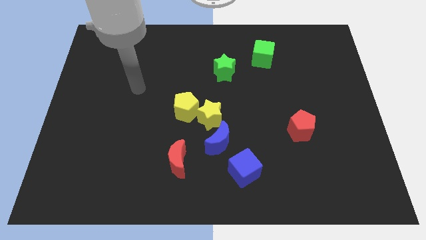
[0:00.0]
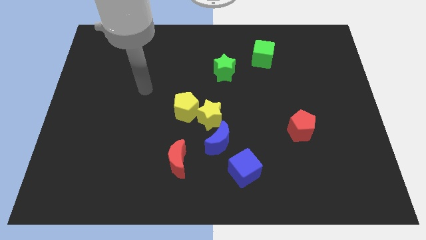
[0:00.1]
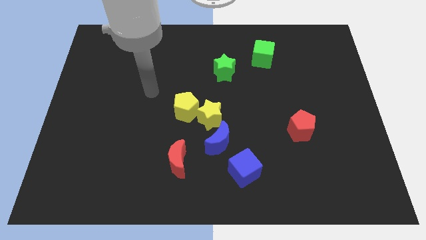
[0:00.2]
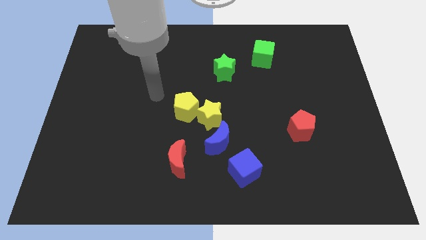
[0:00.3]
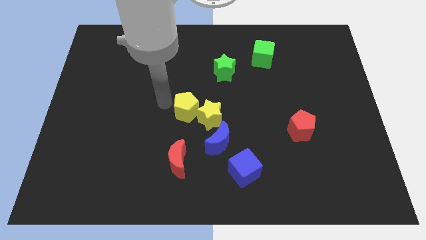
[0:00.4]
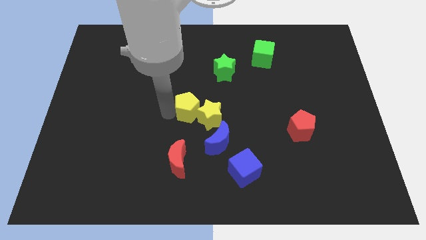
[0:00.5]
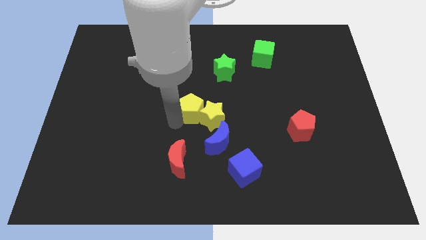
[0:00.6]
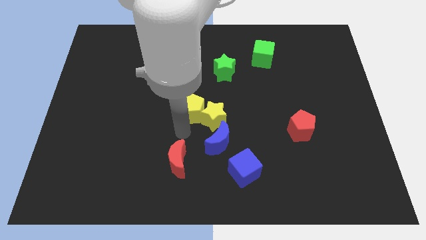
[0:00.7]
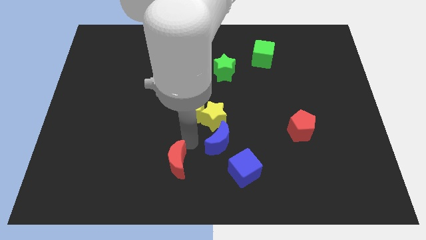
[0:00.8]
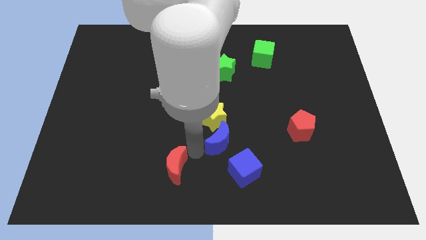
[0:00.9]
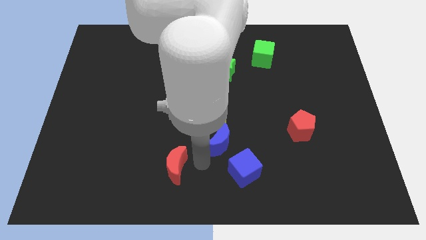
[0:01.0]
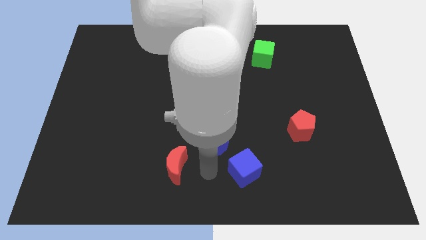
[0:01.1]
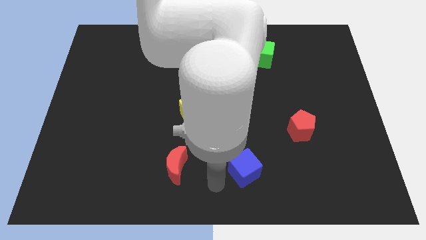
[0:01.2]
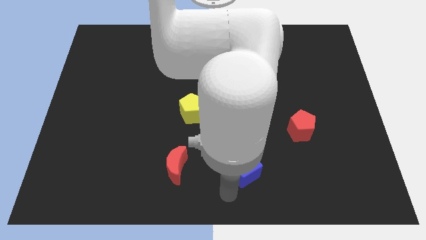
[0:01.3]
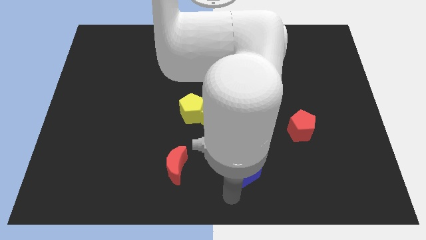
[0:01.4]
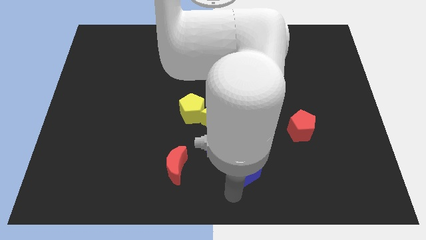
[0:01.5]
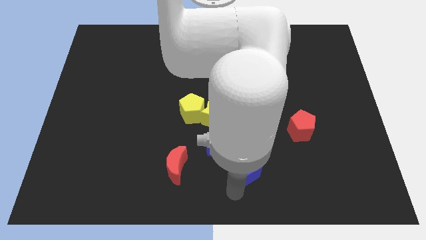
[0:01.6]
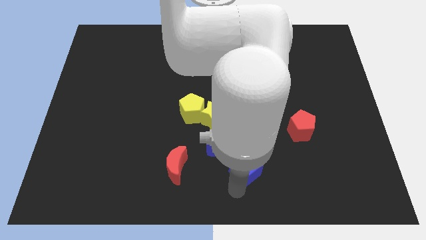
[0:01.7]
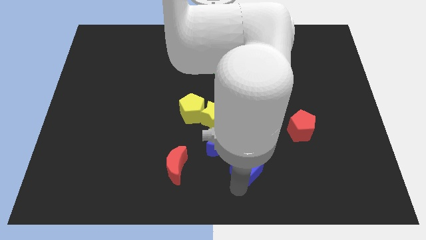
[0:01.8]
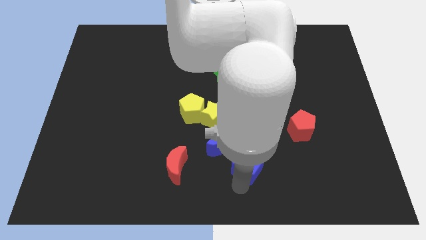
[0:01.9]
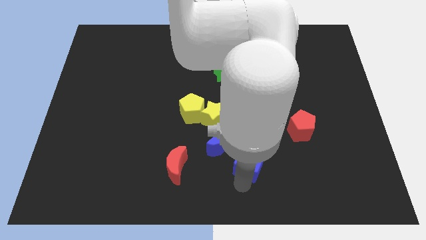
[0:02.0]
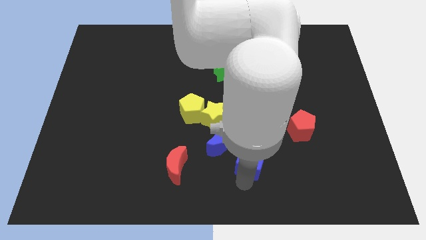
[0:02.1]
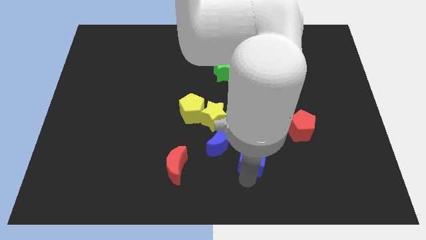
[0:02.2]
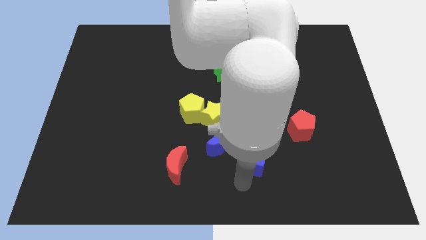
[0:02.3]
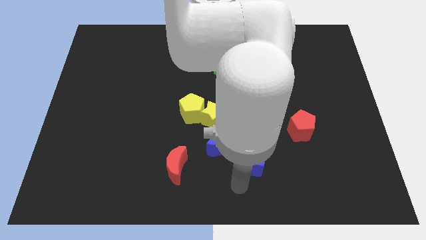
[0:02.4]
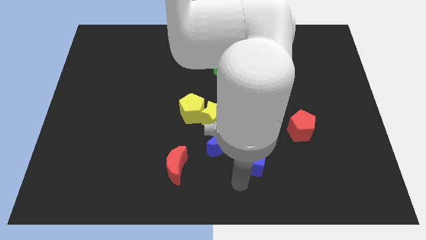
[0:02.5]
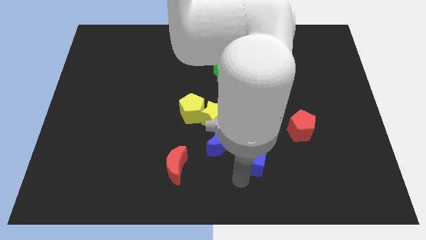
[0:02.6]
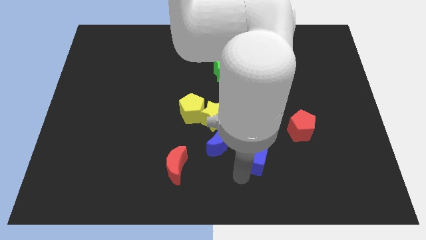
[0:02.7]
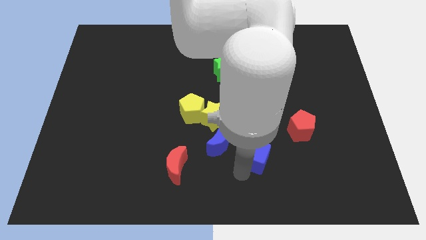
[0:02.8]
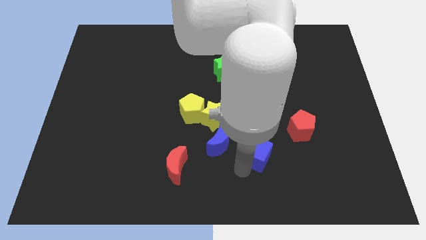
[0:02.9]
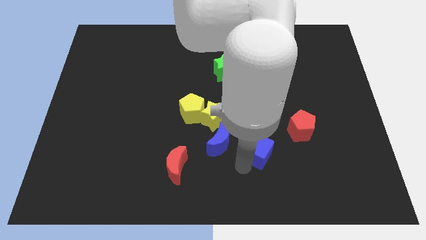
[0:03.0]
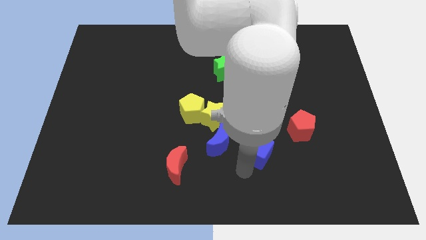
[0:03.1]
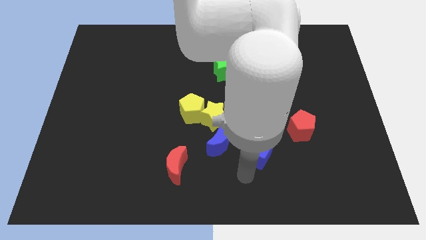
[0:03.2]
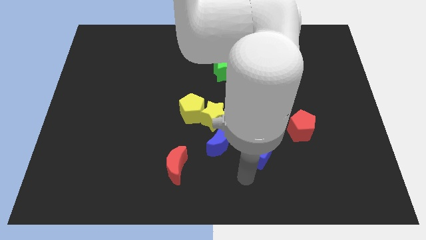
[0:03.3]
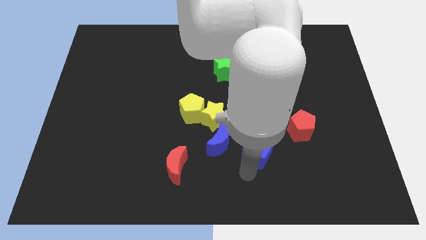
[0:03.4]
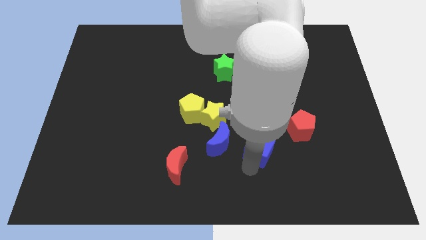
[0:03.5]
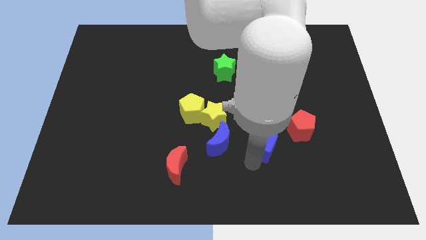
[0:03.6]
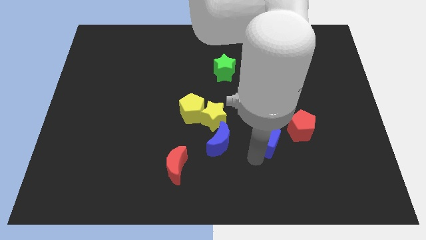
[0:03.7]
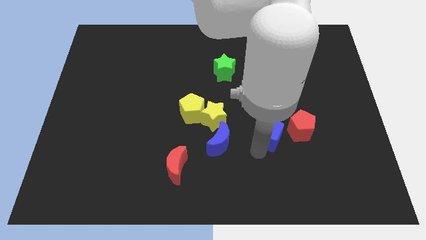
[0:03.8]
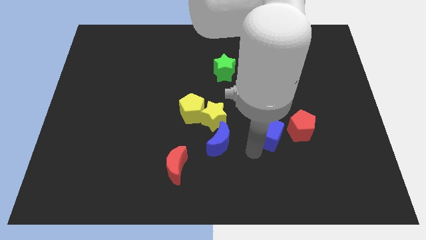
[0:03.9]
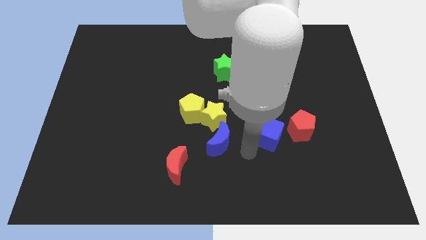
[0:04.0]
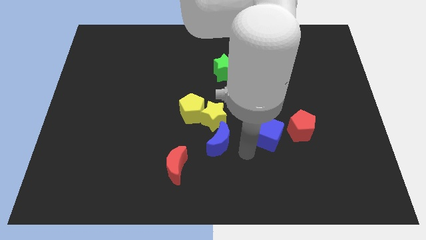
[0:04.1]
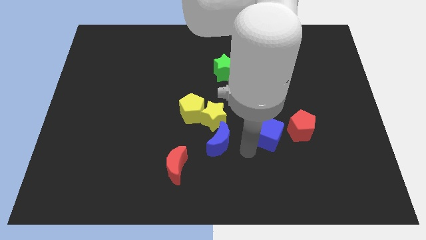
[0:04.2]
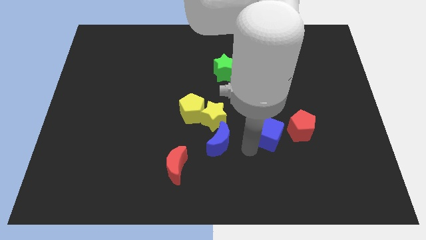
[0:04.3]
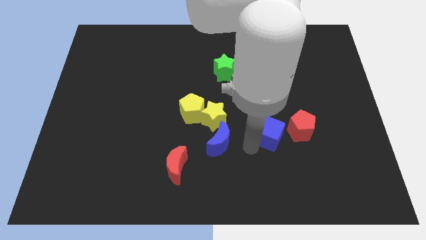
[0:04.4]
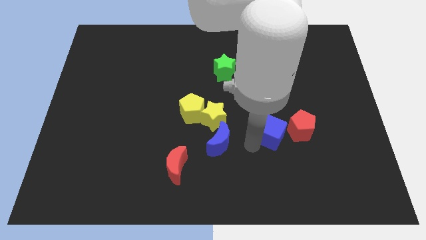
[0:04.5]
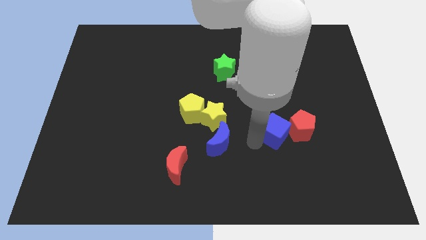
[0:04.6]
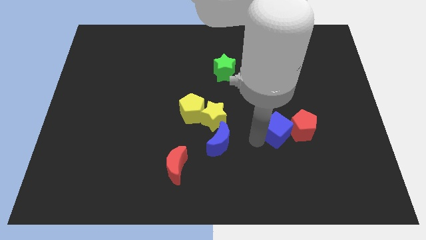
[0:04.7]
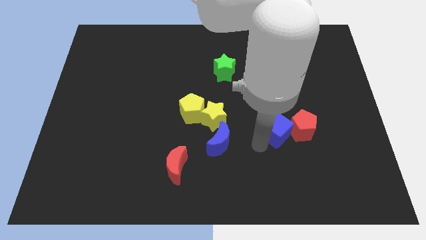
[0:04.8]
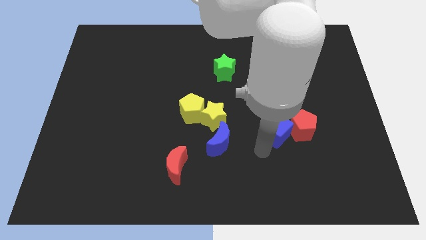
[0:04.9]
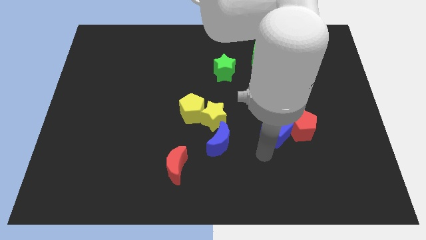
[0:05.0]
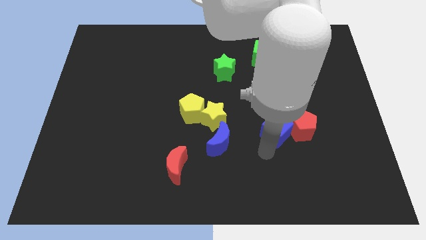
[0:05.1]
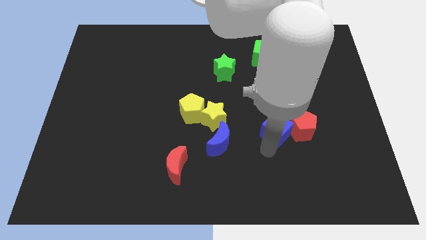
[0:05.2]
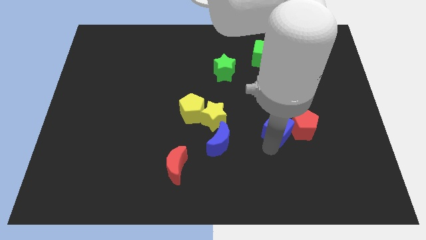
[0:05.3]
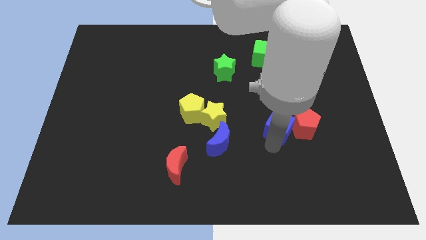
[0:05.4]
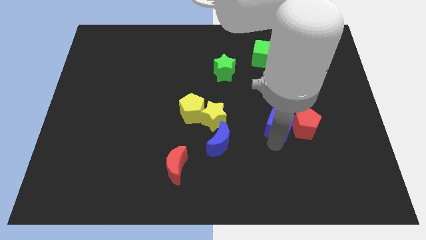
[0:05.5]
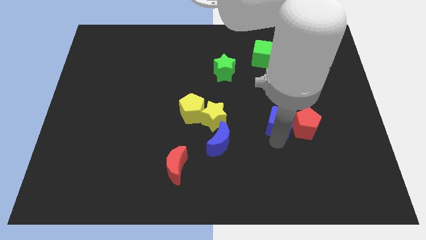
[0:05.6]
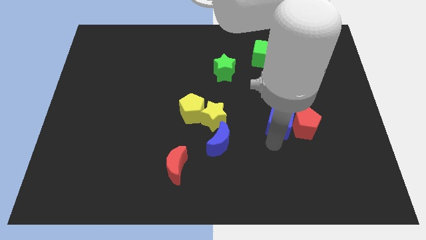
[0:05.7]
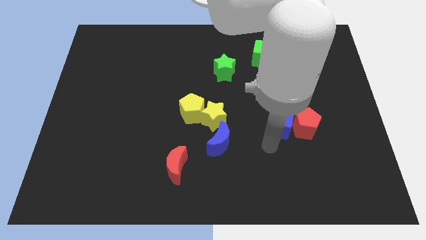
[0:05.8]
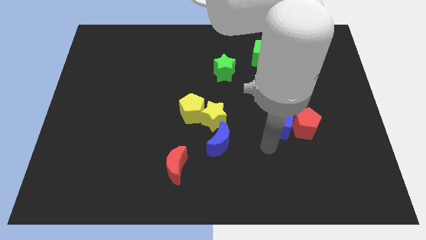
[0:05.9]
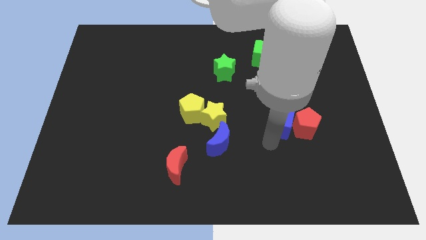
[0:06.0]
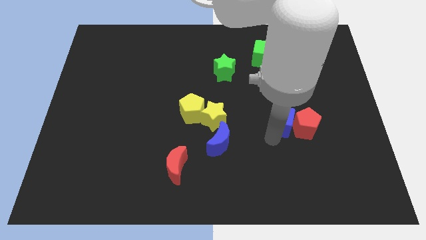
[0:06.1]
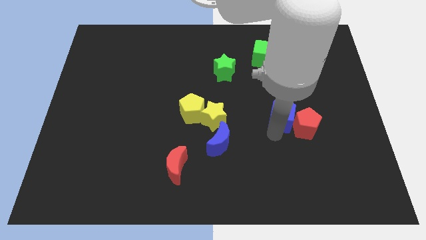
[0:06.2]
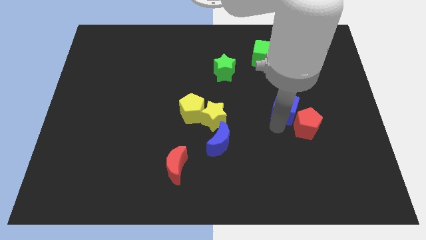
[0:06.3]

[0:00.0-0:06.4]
put the blue cube to the top of the red pentagon

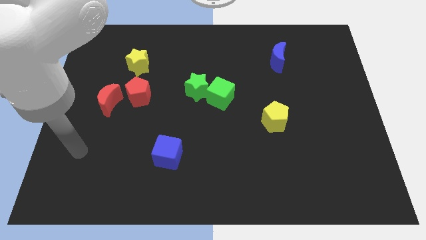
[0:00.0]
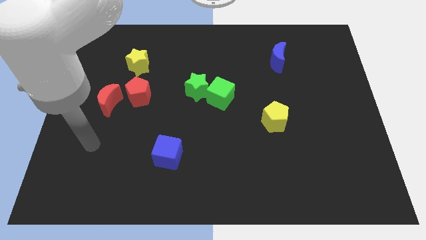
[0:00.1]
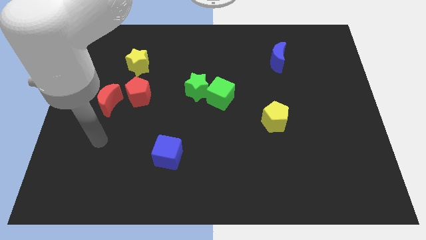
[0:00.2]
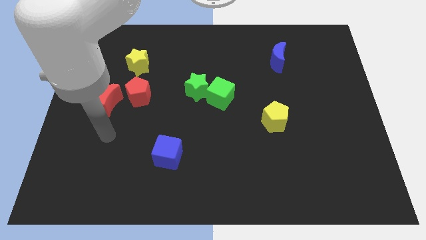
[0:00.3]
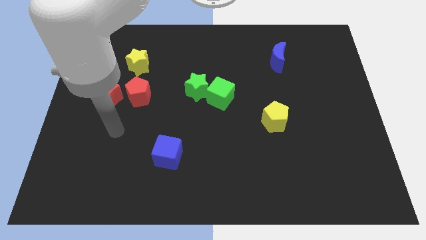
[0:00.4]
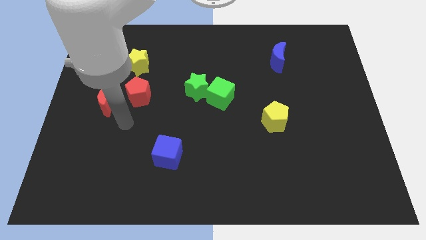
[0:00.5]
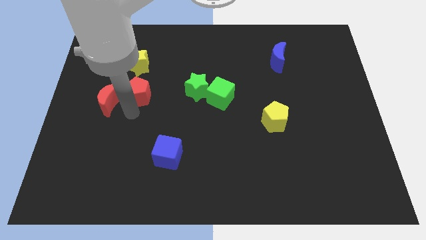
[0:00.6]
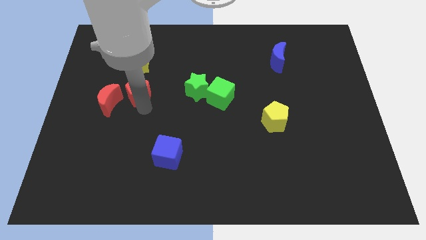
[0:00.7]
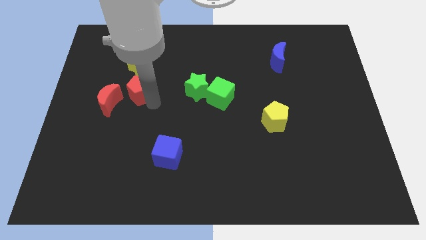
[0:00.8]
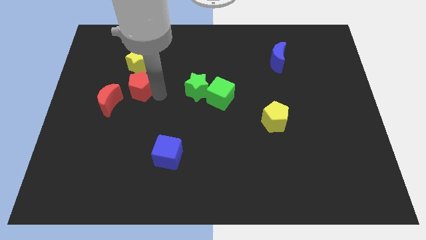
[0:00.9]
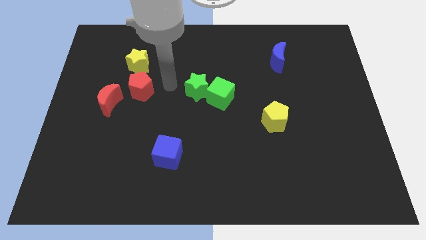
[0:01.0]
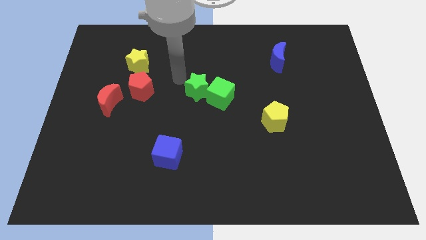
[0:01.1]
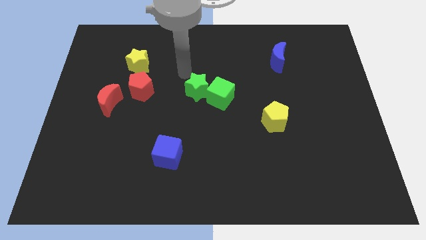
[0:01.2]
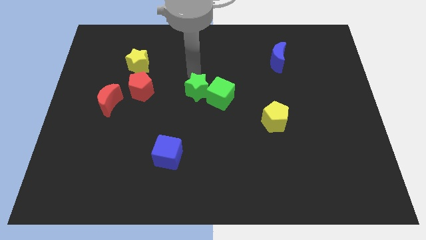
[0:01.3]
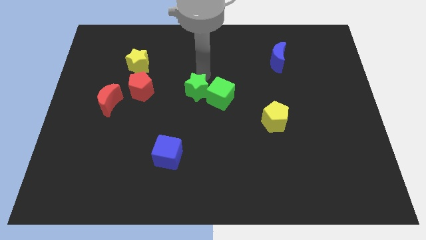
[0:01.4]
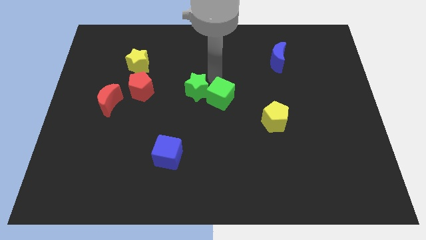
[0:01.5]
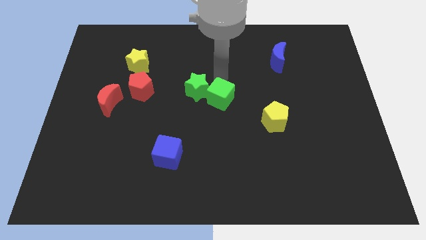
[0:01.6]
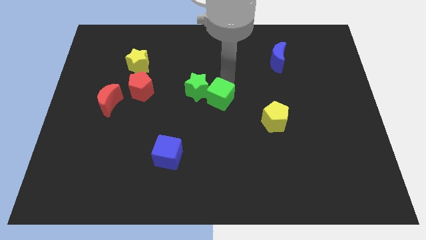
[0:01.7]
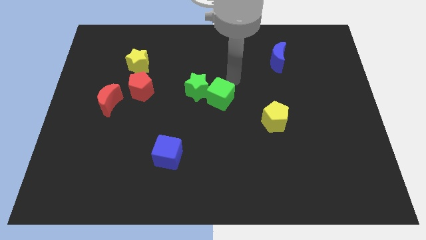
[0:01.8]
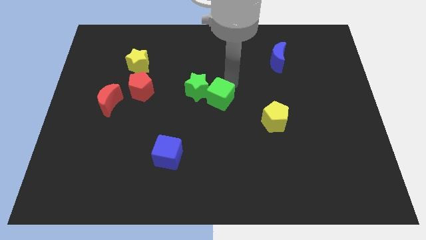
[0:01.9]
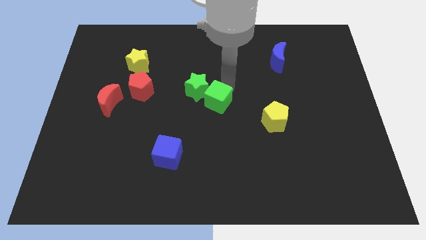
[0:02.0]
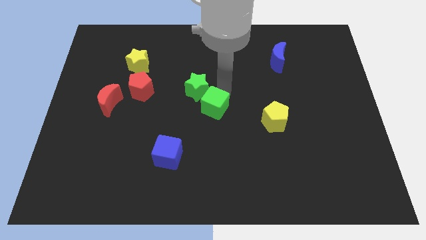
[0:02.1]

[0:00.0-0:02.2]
slide the green cube below the green star
